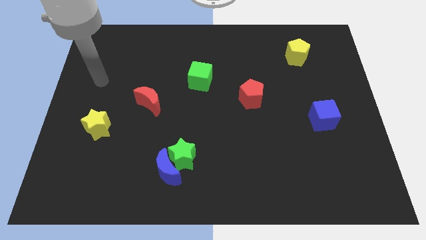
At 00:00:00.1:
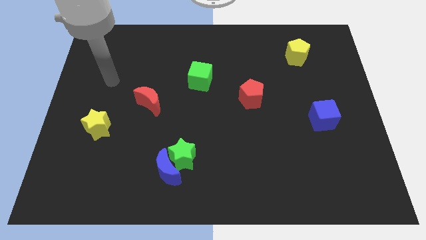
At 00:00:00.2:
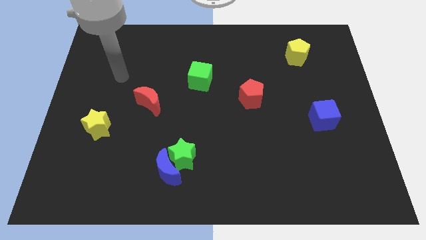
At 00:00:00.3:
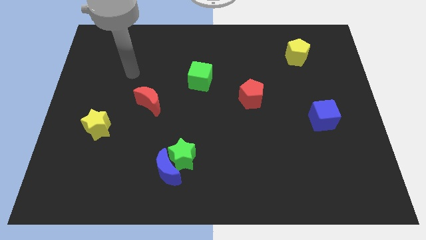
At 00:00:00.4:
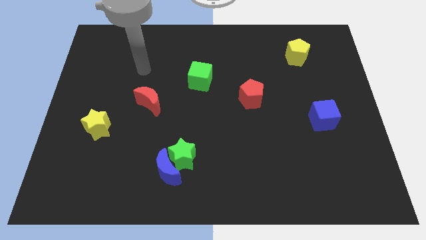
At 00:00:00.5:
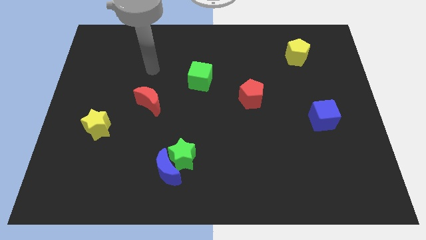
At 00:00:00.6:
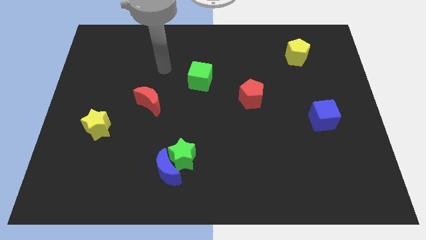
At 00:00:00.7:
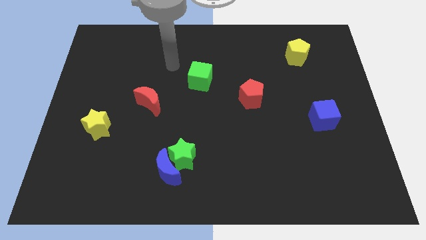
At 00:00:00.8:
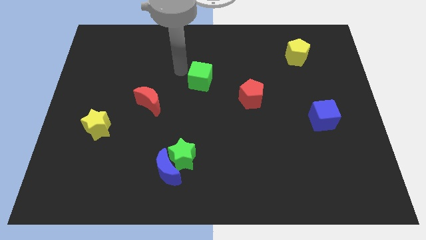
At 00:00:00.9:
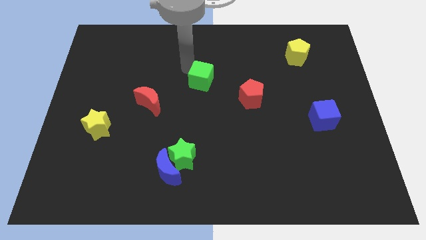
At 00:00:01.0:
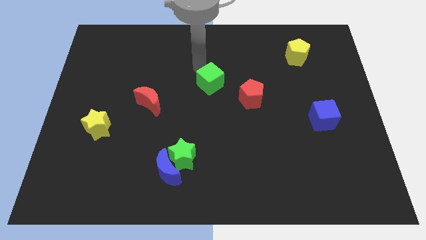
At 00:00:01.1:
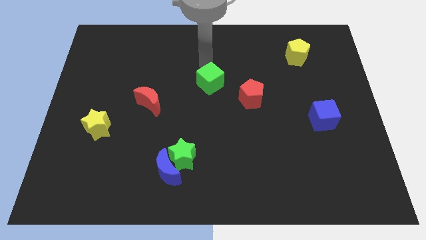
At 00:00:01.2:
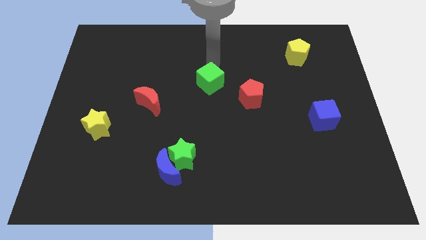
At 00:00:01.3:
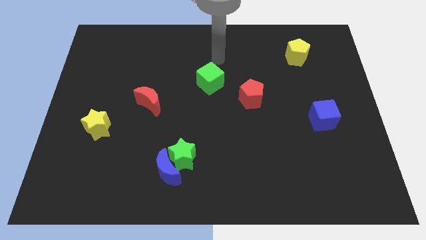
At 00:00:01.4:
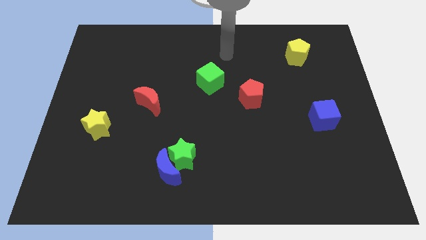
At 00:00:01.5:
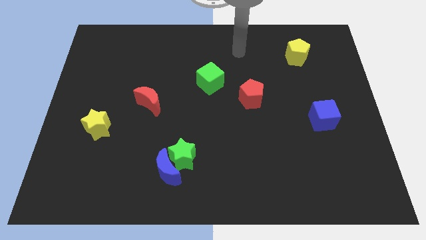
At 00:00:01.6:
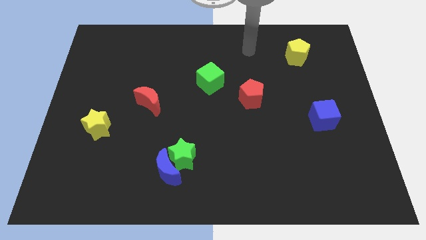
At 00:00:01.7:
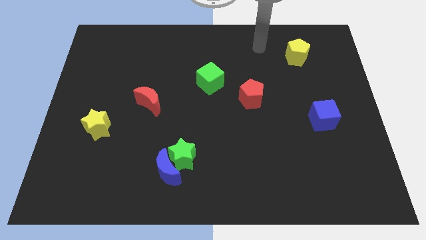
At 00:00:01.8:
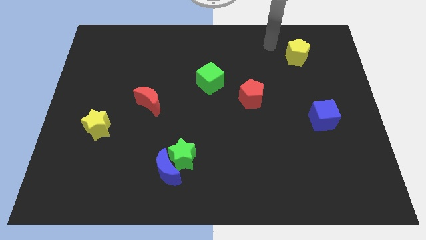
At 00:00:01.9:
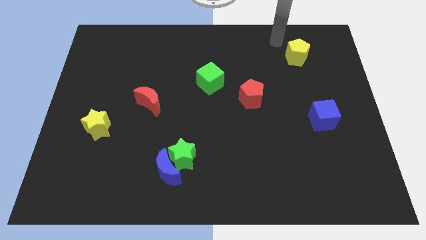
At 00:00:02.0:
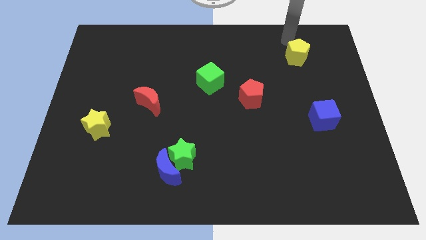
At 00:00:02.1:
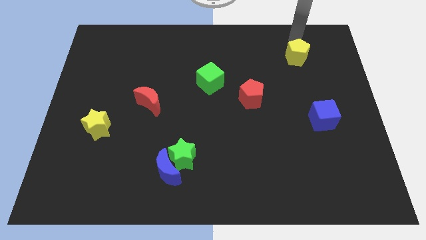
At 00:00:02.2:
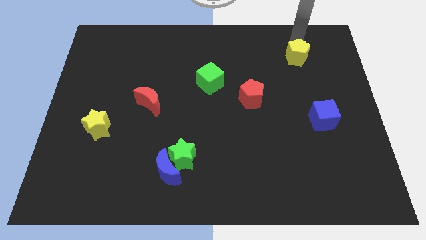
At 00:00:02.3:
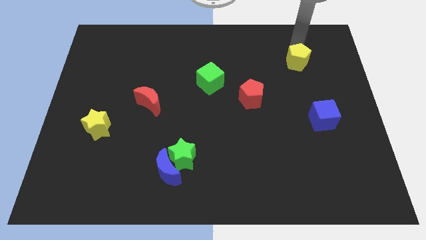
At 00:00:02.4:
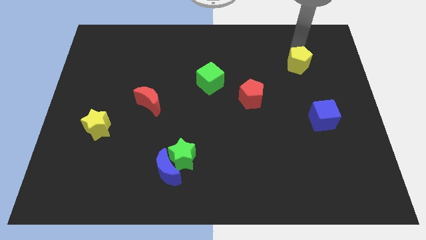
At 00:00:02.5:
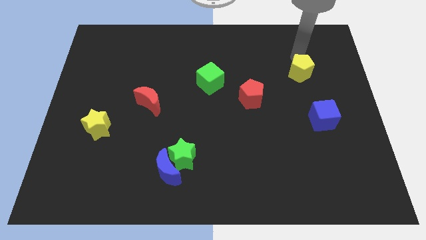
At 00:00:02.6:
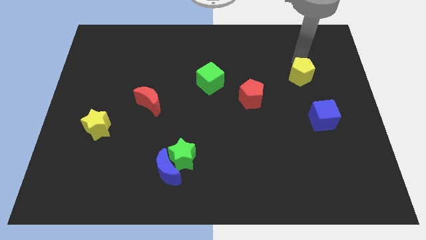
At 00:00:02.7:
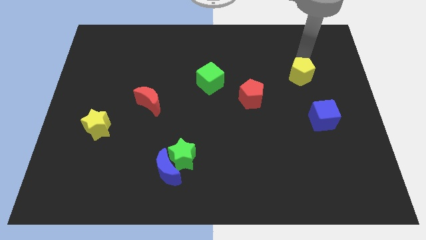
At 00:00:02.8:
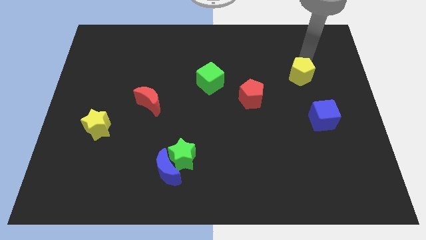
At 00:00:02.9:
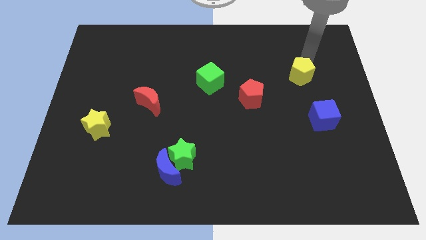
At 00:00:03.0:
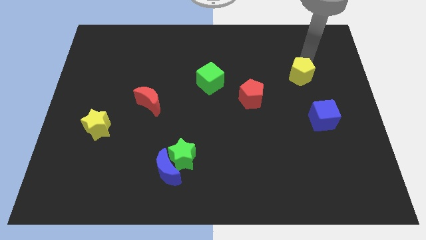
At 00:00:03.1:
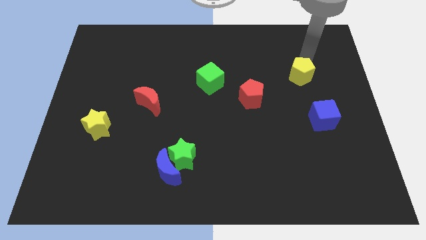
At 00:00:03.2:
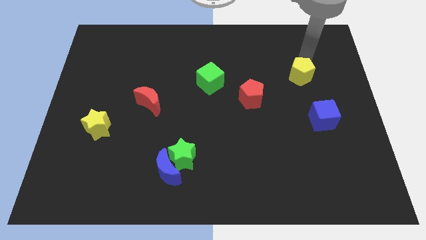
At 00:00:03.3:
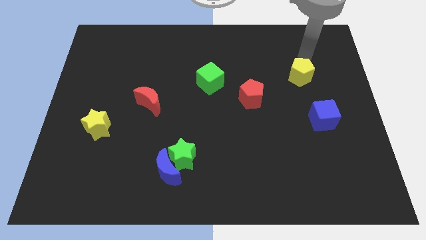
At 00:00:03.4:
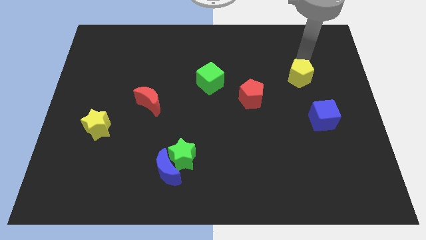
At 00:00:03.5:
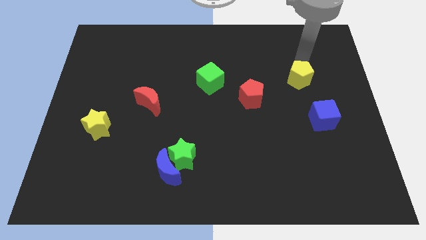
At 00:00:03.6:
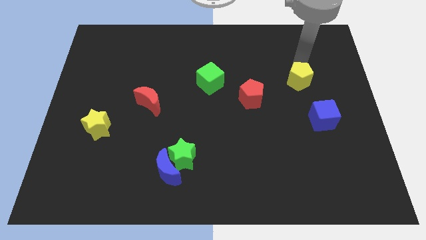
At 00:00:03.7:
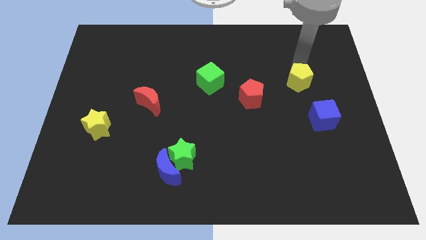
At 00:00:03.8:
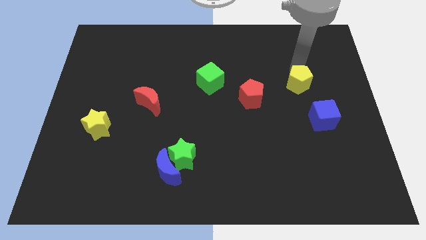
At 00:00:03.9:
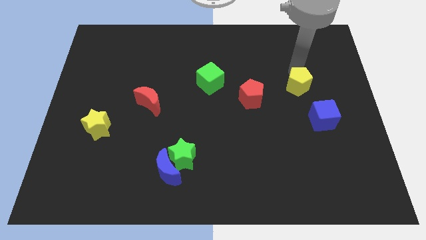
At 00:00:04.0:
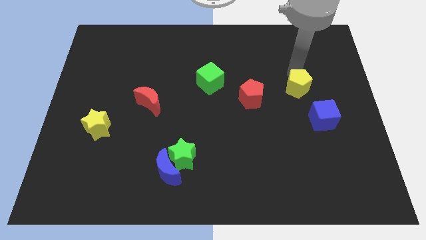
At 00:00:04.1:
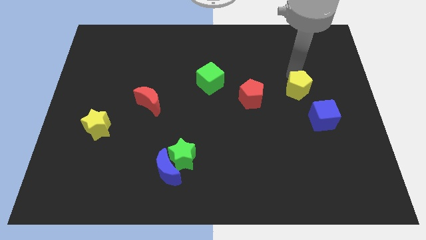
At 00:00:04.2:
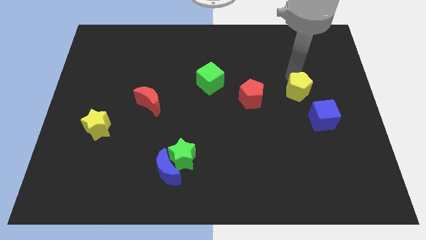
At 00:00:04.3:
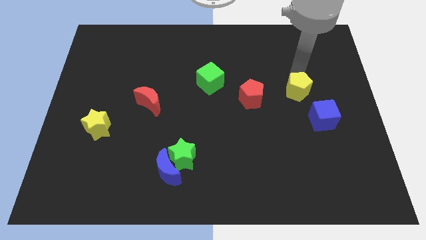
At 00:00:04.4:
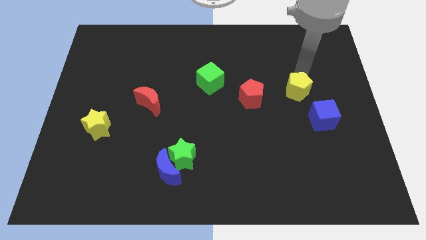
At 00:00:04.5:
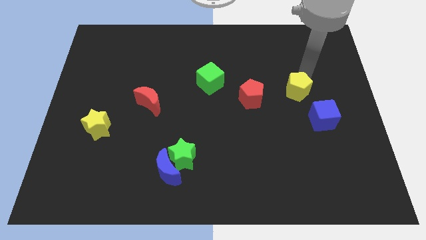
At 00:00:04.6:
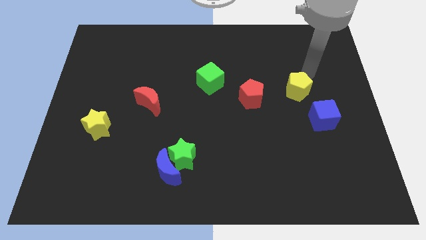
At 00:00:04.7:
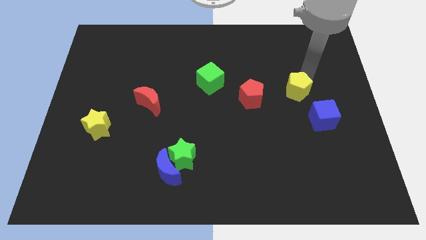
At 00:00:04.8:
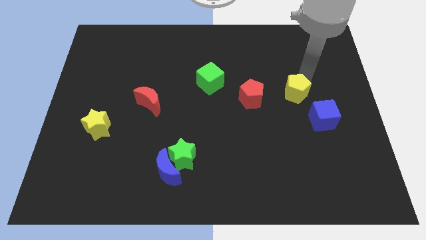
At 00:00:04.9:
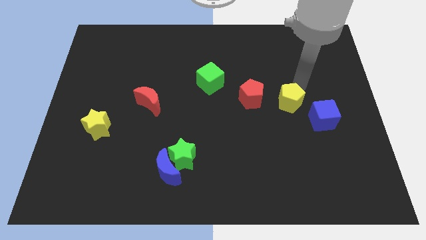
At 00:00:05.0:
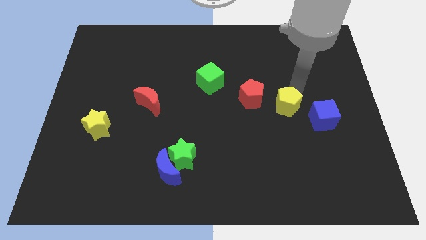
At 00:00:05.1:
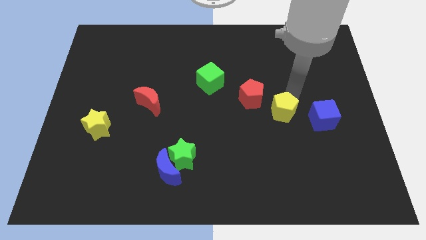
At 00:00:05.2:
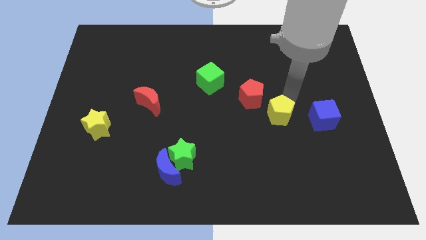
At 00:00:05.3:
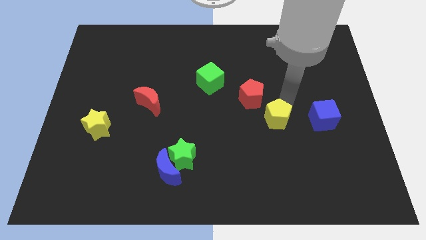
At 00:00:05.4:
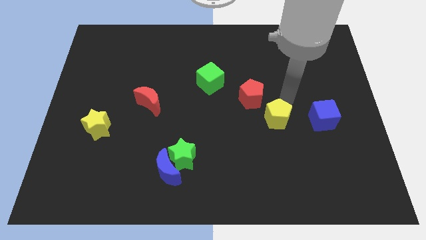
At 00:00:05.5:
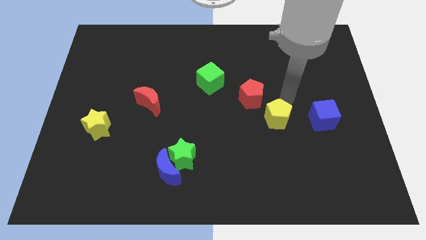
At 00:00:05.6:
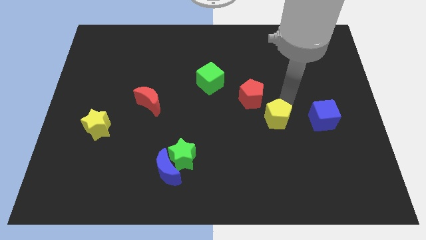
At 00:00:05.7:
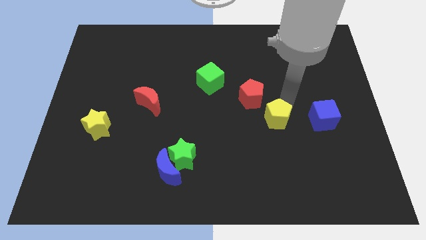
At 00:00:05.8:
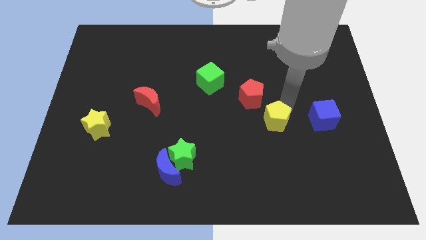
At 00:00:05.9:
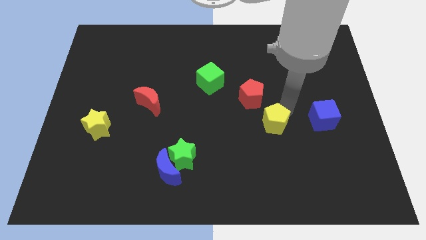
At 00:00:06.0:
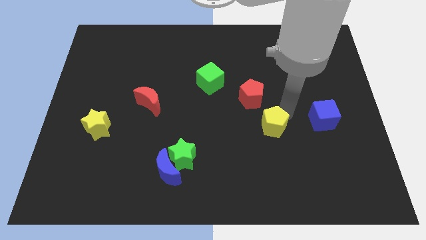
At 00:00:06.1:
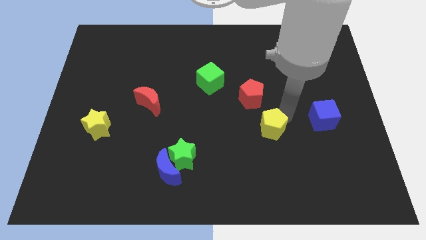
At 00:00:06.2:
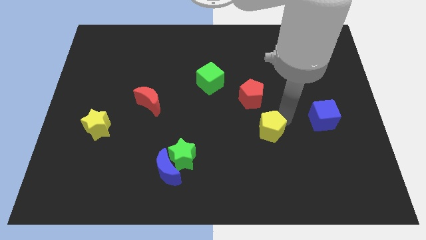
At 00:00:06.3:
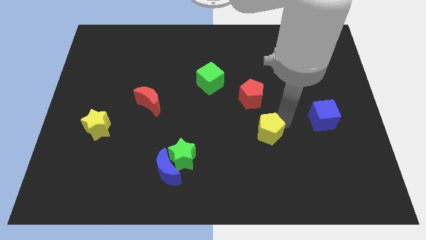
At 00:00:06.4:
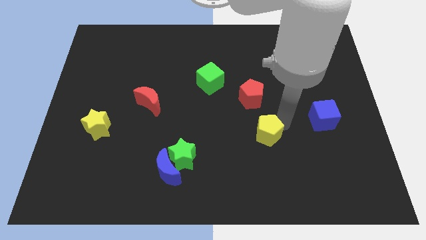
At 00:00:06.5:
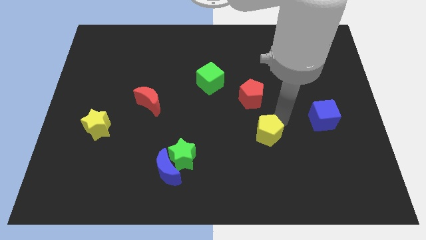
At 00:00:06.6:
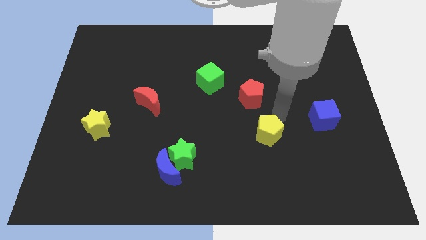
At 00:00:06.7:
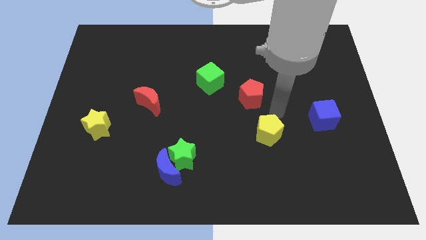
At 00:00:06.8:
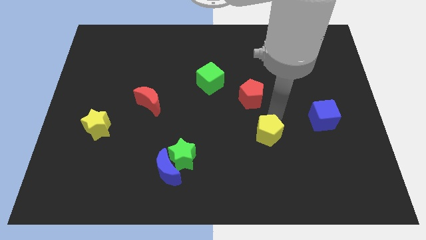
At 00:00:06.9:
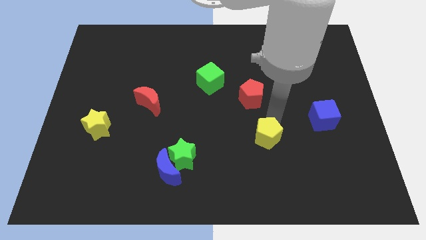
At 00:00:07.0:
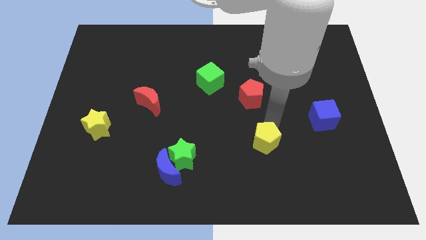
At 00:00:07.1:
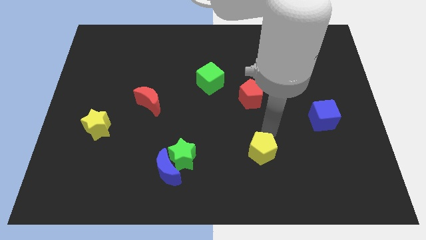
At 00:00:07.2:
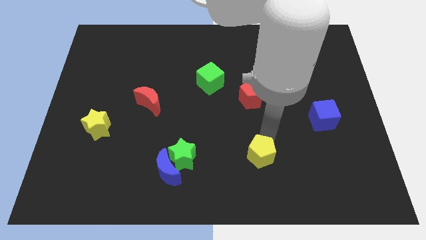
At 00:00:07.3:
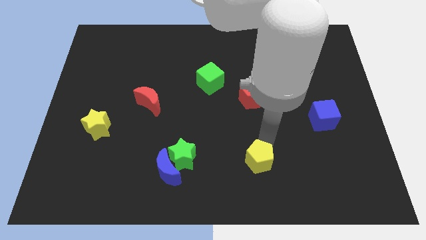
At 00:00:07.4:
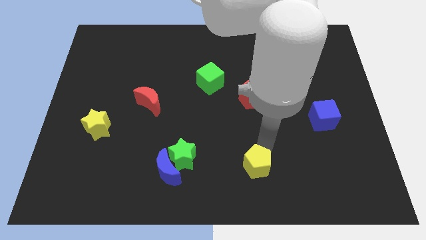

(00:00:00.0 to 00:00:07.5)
push the yellow pentagon to the bottom side
